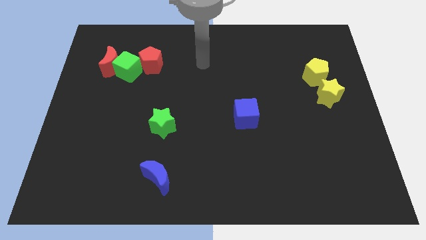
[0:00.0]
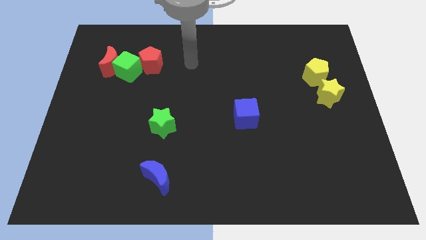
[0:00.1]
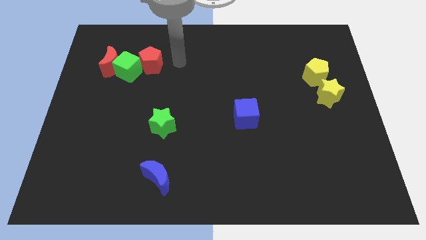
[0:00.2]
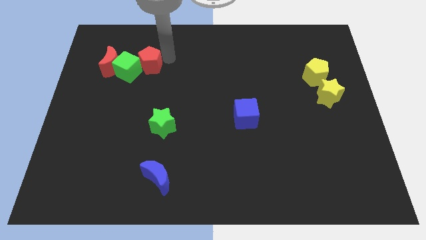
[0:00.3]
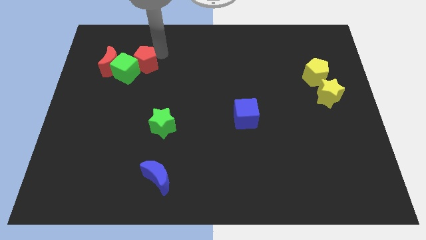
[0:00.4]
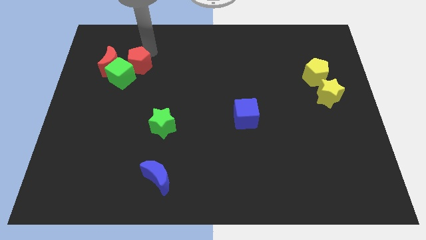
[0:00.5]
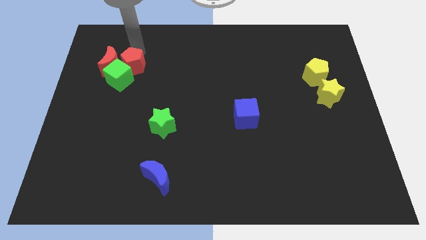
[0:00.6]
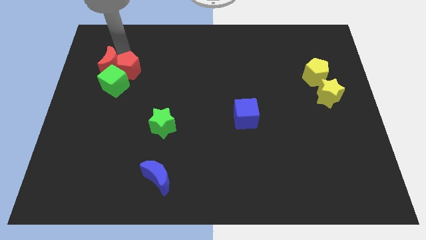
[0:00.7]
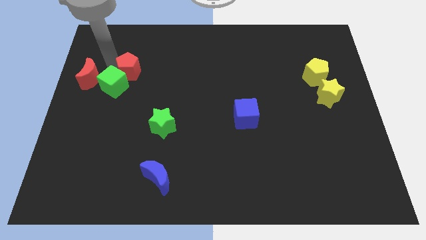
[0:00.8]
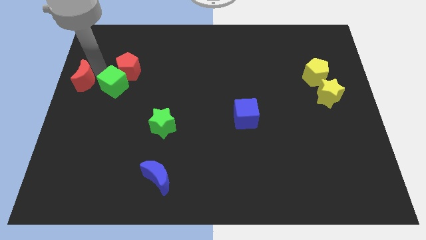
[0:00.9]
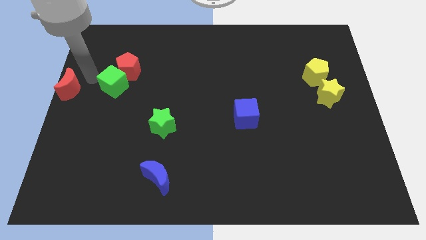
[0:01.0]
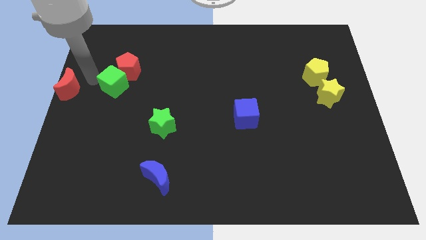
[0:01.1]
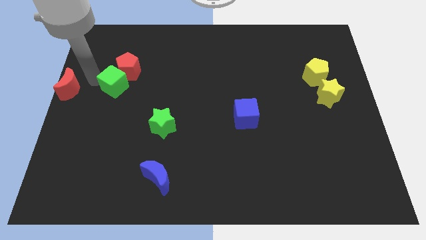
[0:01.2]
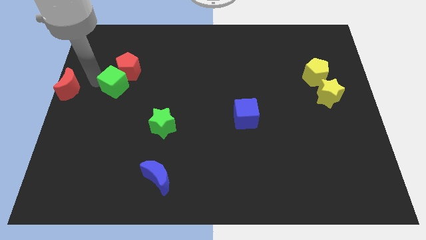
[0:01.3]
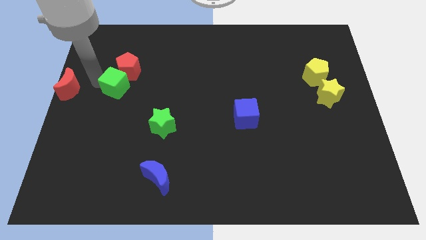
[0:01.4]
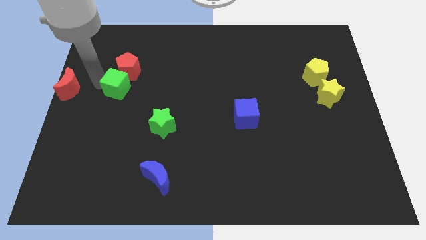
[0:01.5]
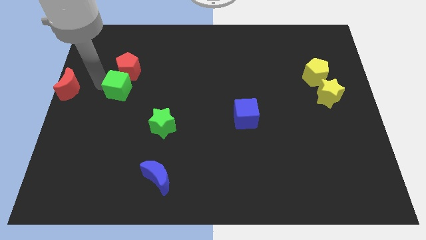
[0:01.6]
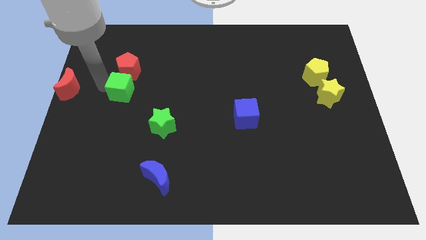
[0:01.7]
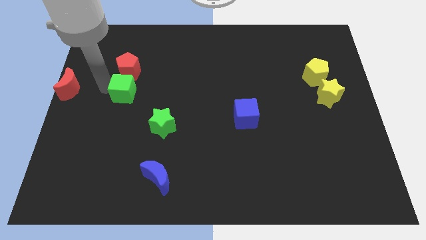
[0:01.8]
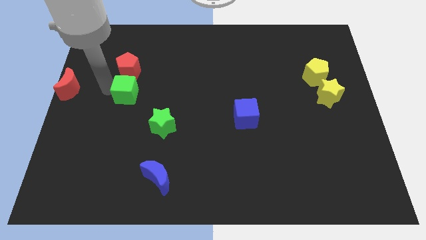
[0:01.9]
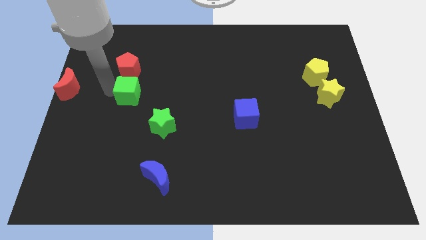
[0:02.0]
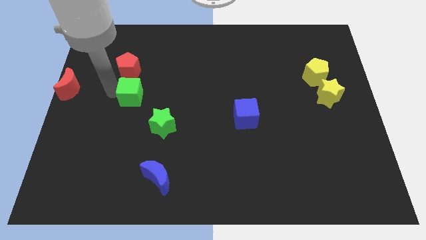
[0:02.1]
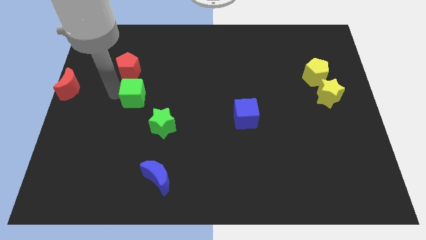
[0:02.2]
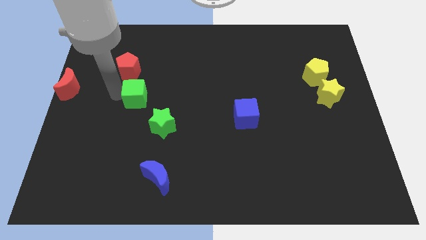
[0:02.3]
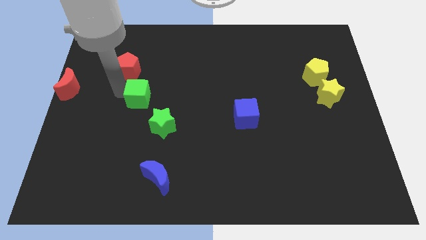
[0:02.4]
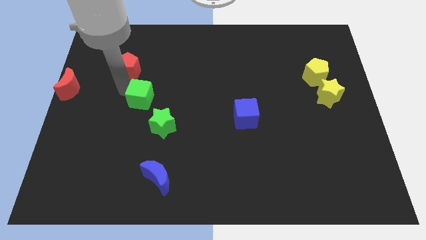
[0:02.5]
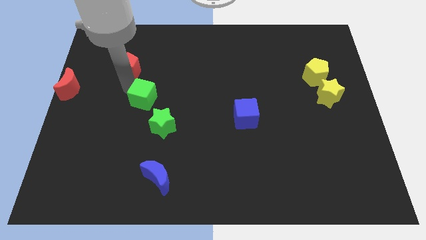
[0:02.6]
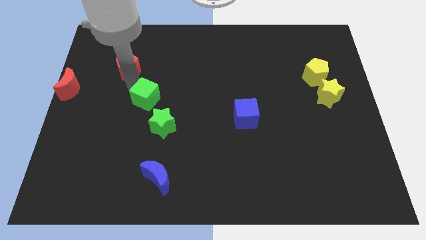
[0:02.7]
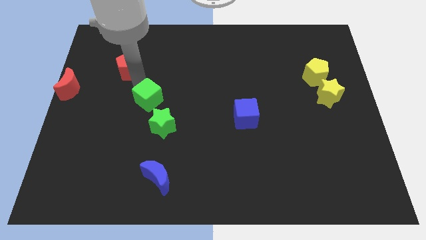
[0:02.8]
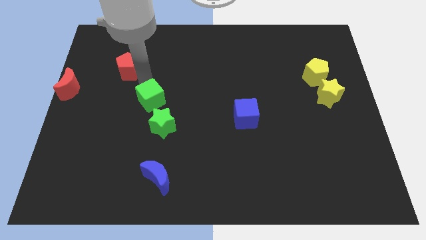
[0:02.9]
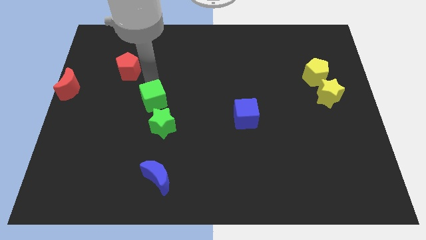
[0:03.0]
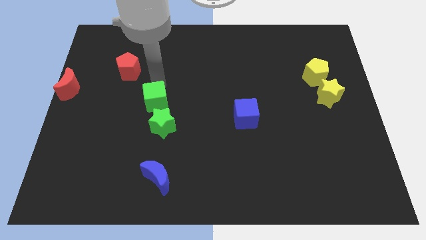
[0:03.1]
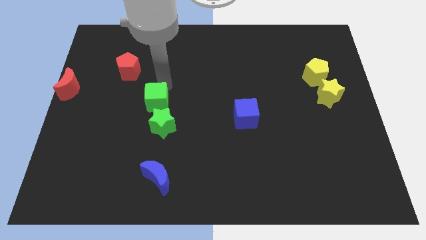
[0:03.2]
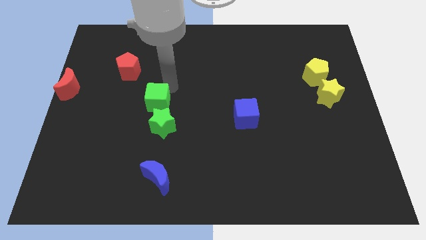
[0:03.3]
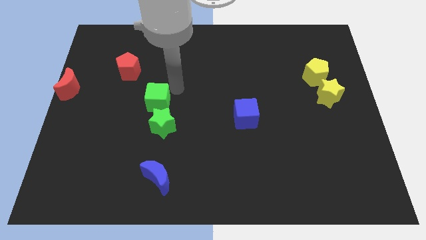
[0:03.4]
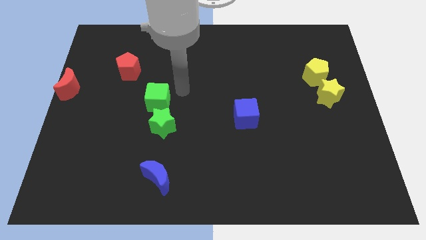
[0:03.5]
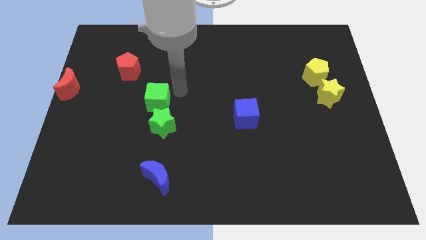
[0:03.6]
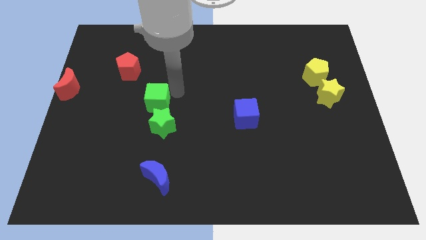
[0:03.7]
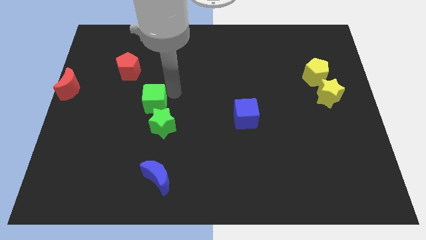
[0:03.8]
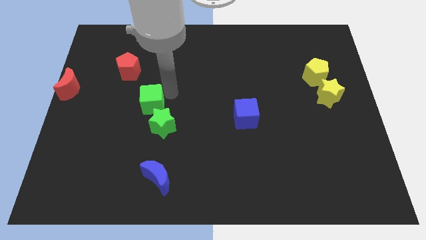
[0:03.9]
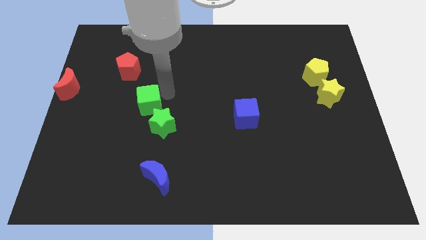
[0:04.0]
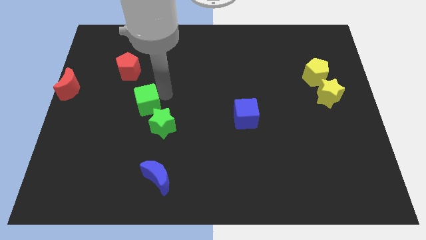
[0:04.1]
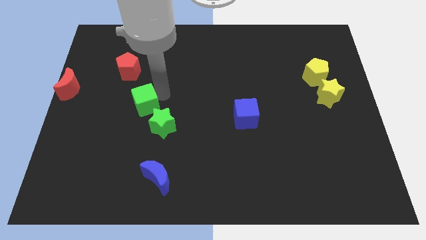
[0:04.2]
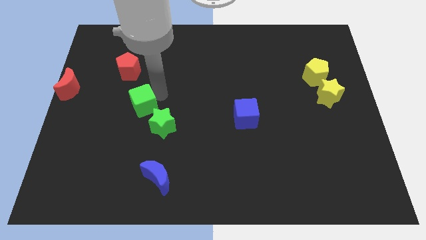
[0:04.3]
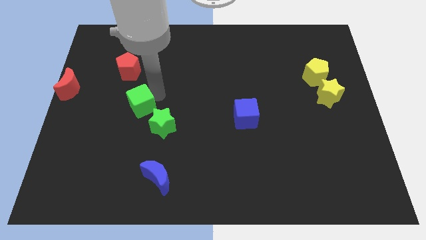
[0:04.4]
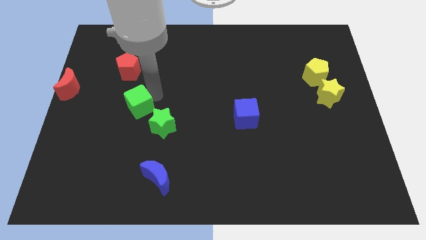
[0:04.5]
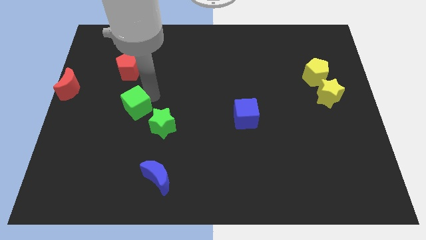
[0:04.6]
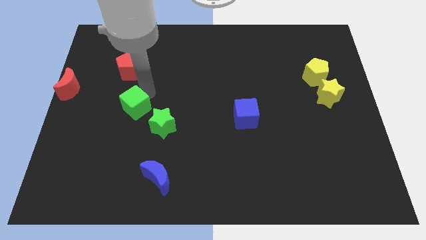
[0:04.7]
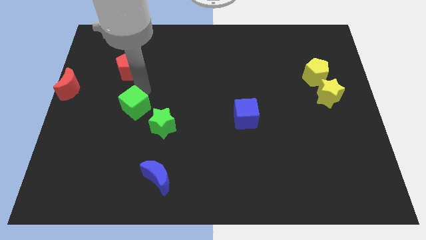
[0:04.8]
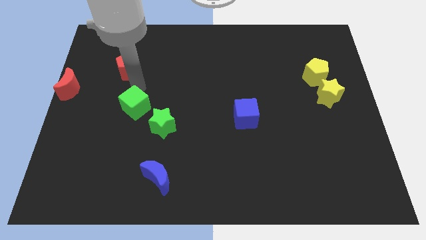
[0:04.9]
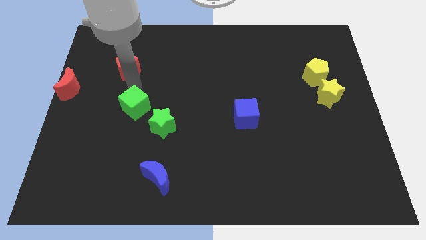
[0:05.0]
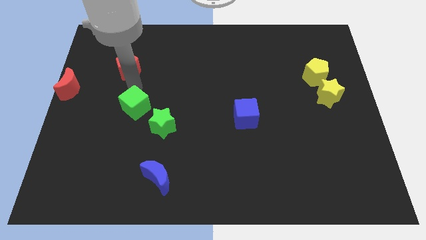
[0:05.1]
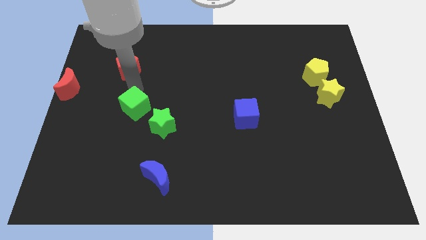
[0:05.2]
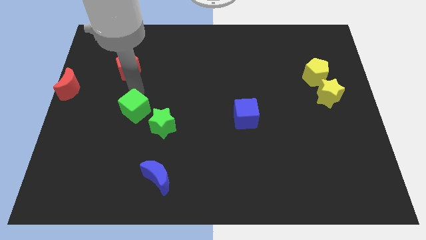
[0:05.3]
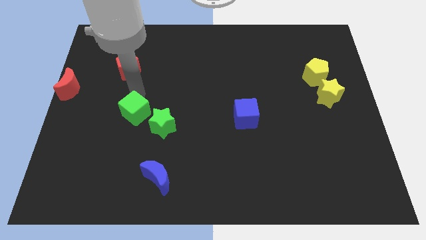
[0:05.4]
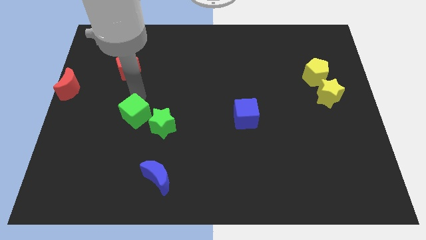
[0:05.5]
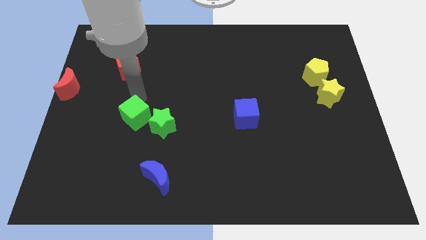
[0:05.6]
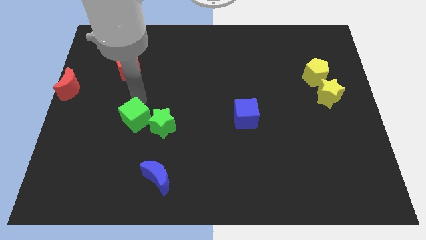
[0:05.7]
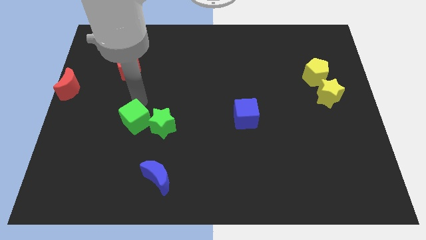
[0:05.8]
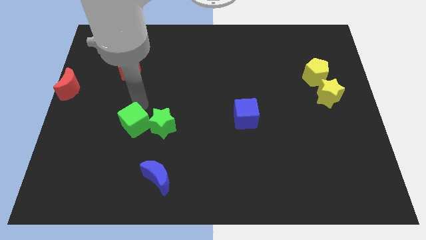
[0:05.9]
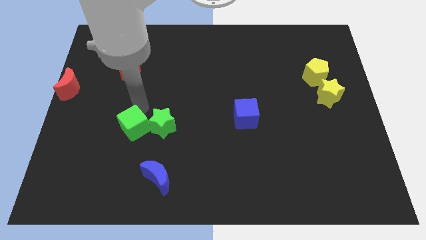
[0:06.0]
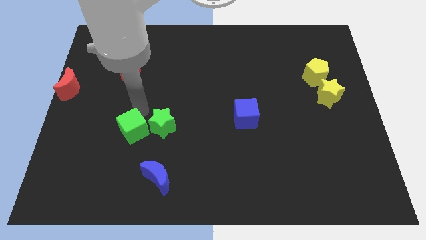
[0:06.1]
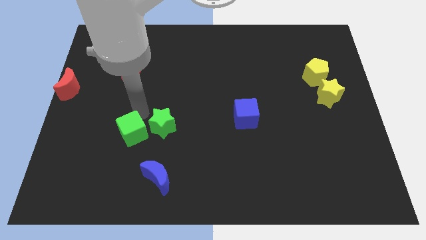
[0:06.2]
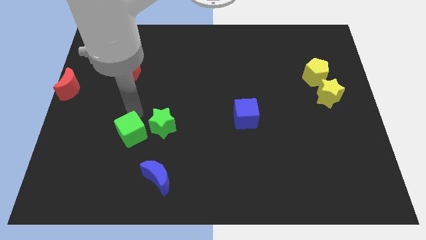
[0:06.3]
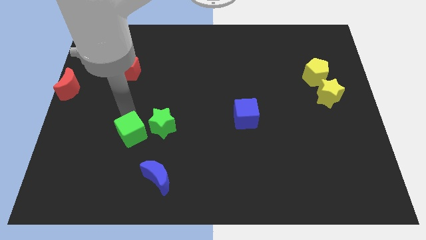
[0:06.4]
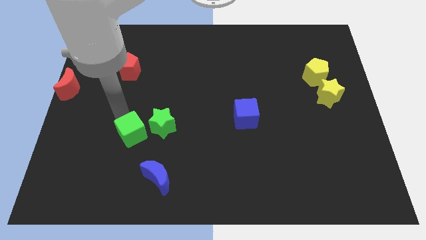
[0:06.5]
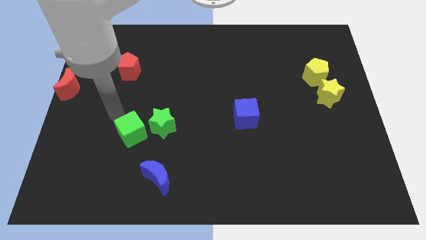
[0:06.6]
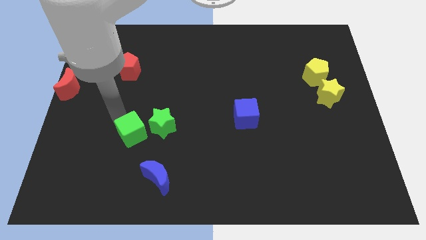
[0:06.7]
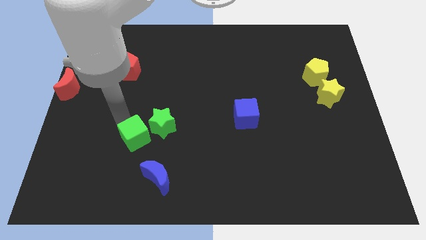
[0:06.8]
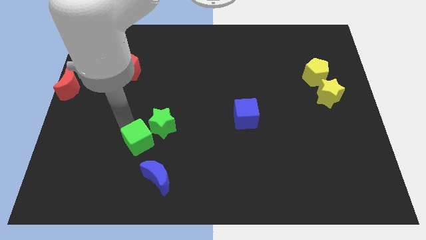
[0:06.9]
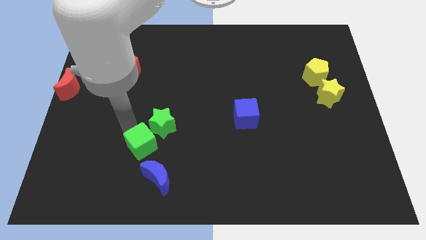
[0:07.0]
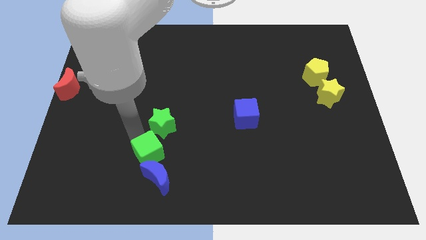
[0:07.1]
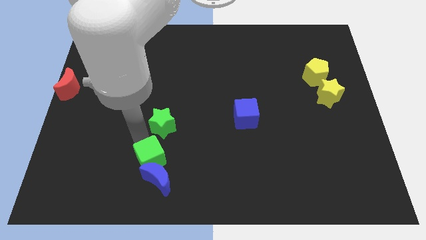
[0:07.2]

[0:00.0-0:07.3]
move the green cube next to the blue moon
